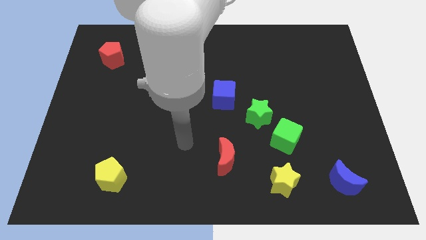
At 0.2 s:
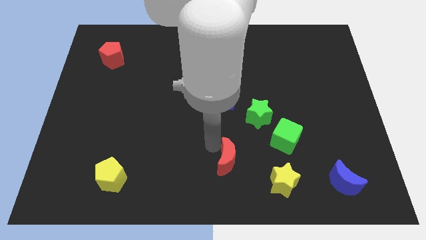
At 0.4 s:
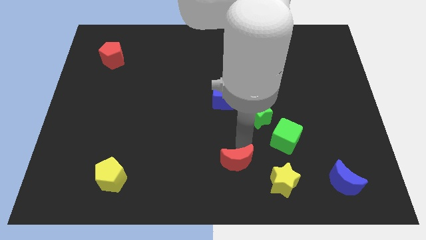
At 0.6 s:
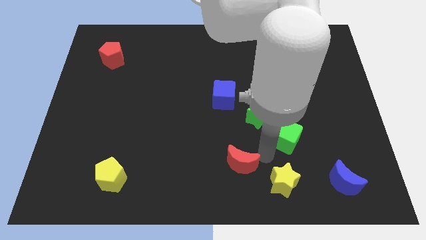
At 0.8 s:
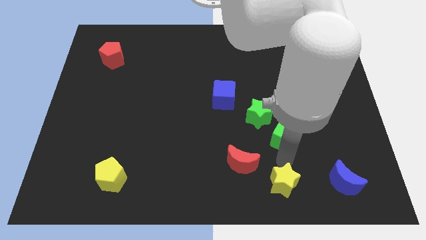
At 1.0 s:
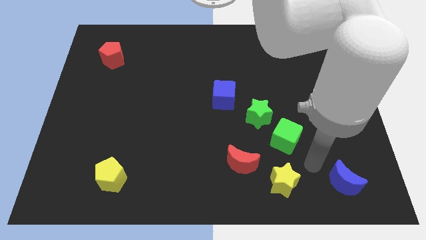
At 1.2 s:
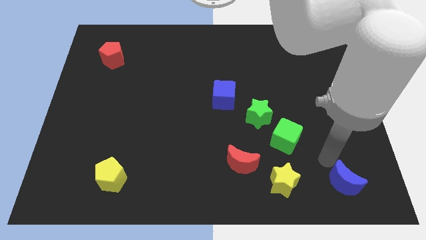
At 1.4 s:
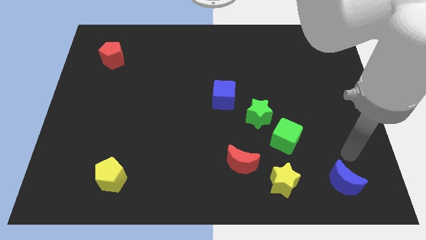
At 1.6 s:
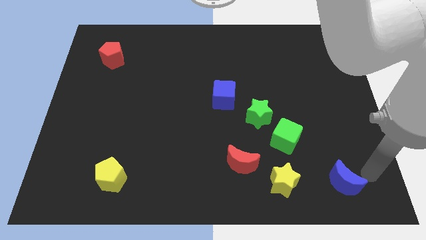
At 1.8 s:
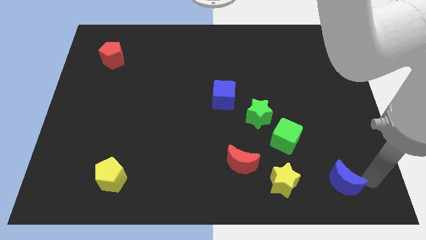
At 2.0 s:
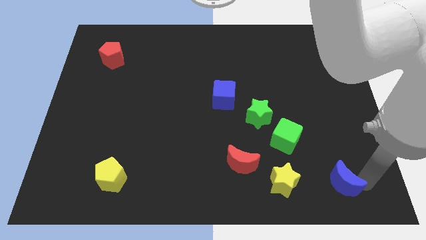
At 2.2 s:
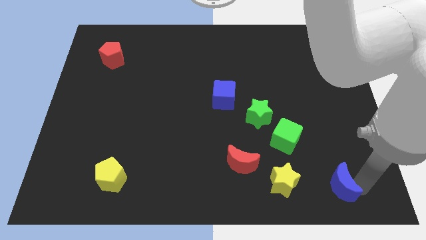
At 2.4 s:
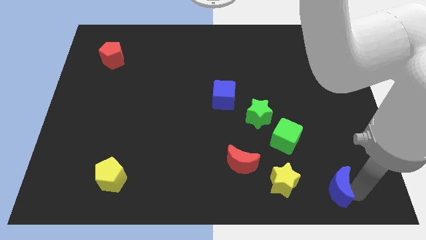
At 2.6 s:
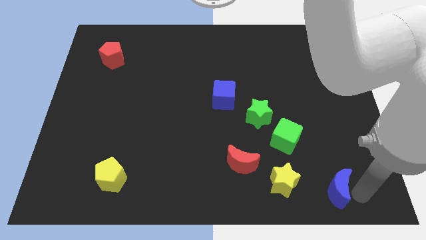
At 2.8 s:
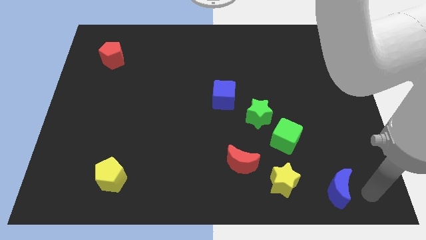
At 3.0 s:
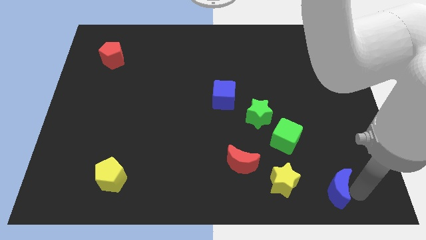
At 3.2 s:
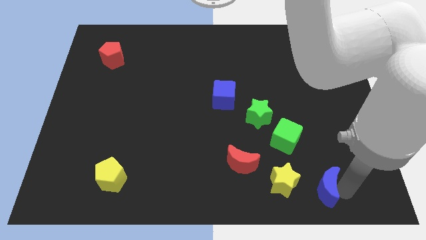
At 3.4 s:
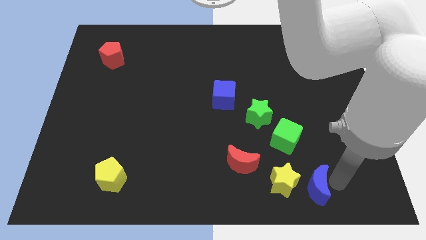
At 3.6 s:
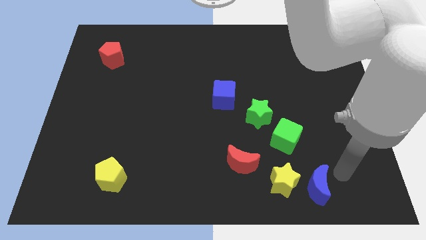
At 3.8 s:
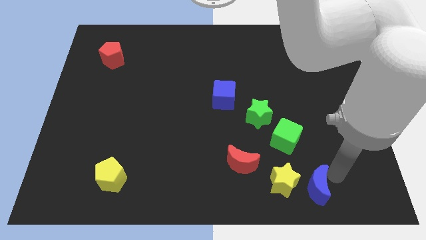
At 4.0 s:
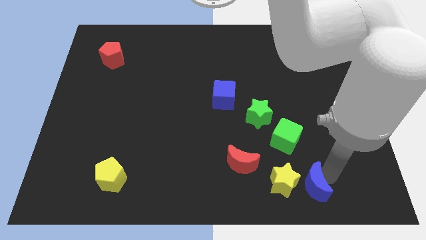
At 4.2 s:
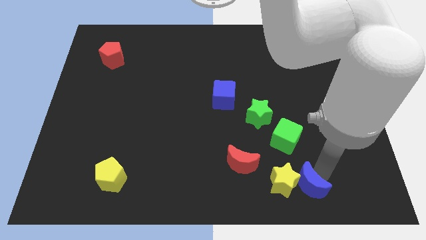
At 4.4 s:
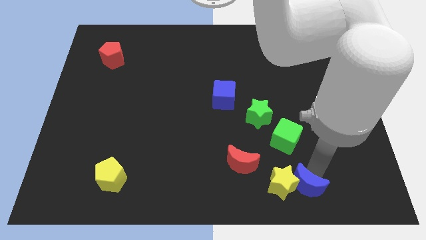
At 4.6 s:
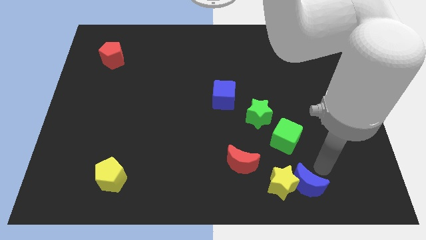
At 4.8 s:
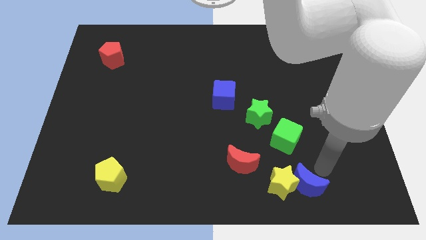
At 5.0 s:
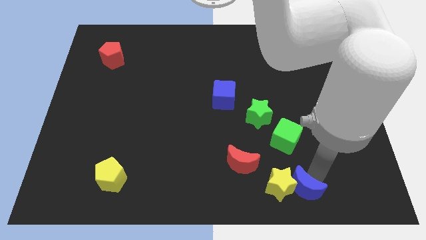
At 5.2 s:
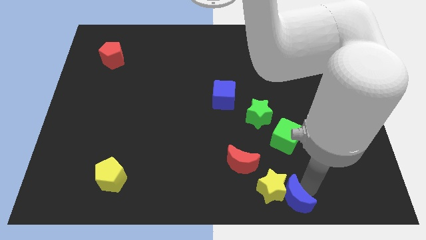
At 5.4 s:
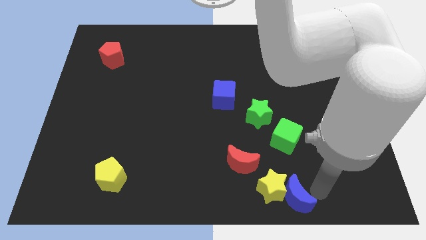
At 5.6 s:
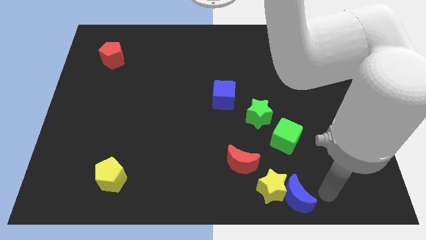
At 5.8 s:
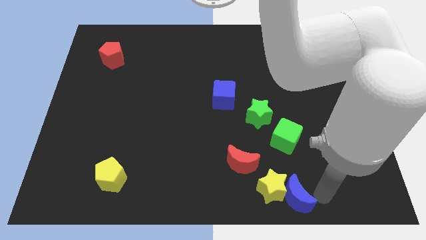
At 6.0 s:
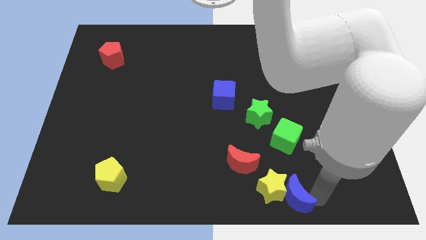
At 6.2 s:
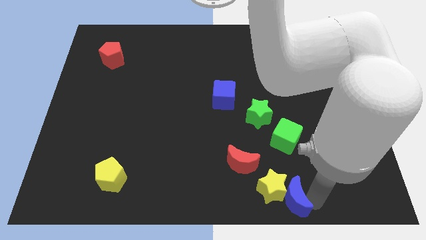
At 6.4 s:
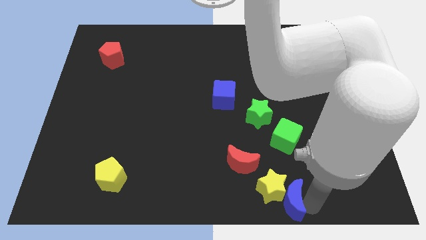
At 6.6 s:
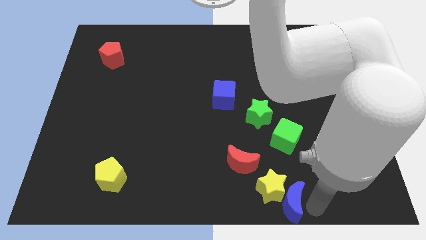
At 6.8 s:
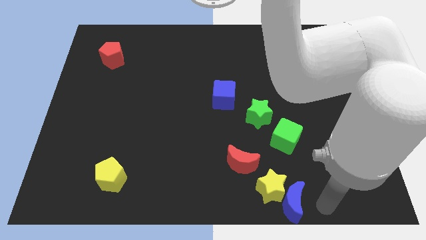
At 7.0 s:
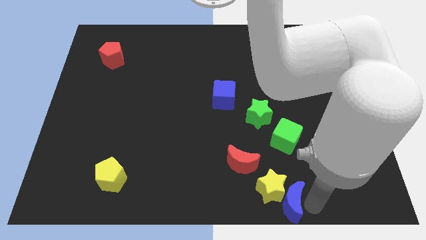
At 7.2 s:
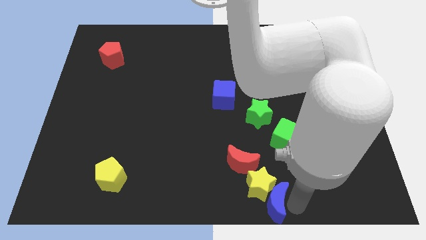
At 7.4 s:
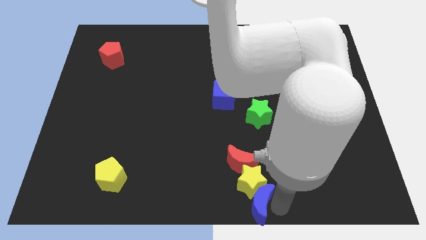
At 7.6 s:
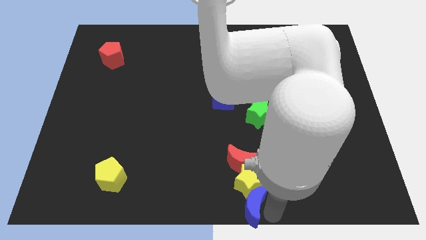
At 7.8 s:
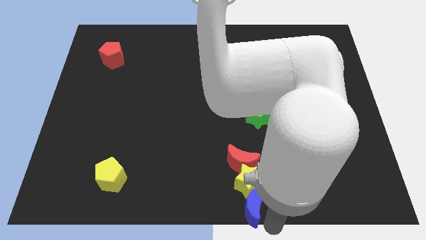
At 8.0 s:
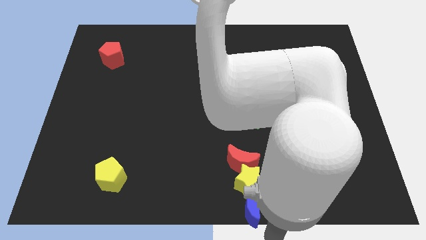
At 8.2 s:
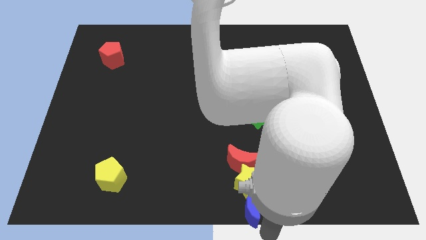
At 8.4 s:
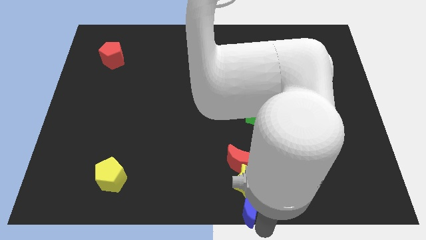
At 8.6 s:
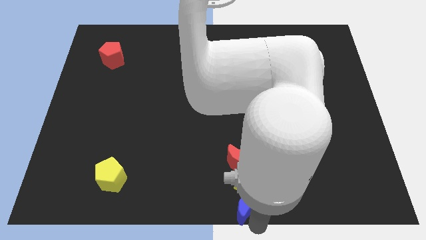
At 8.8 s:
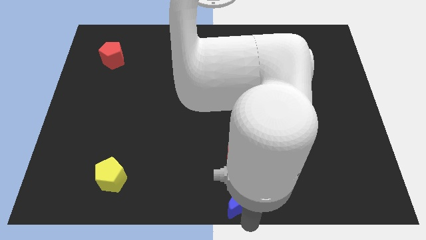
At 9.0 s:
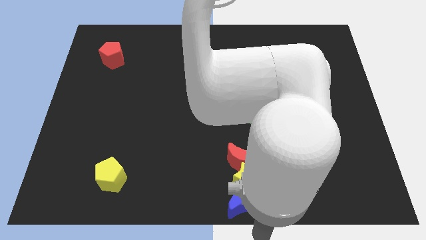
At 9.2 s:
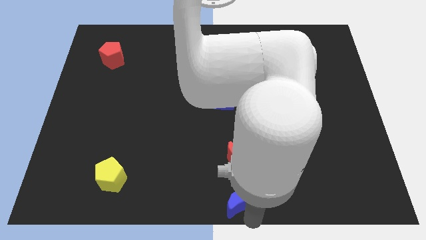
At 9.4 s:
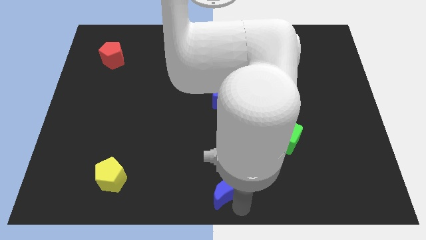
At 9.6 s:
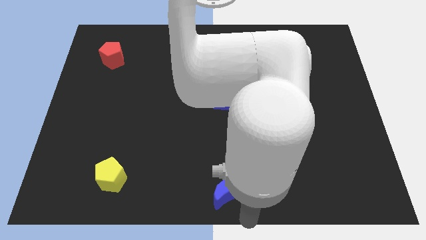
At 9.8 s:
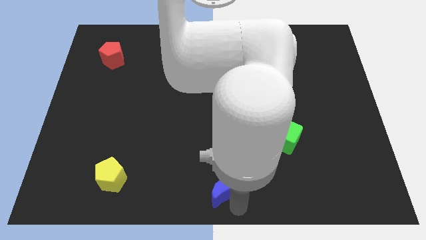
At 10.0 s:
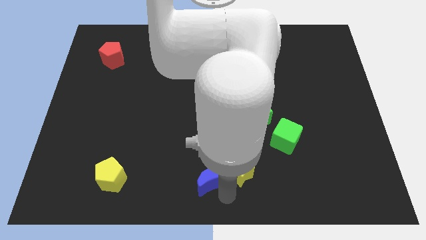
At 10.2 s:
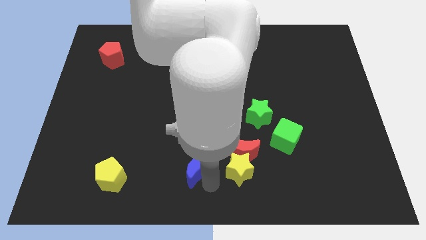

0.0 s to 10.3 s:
push the blue moon left of the red moon

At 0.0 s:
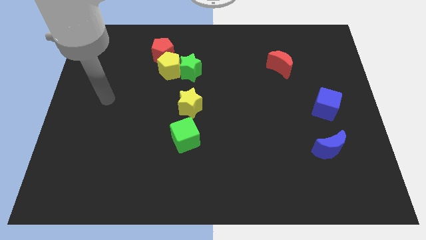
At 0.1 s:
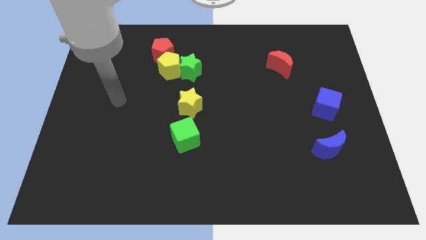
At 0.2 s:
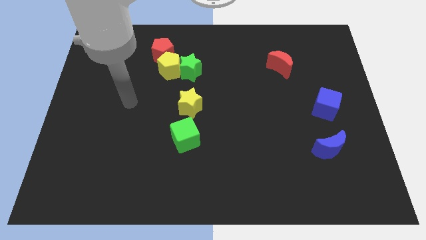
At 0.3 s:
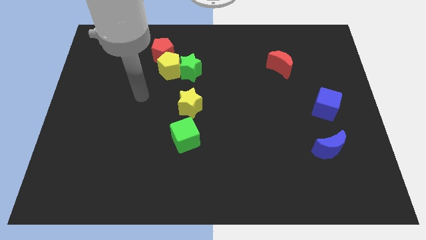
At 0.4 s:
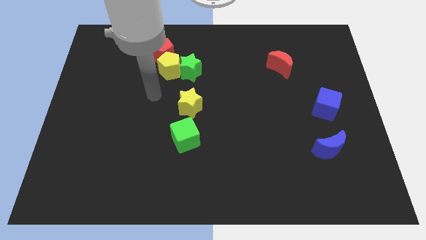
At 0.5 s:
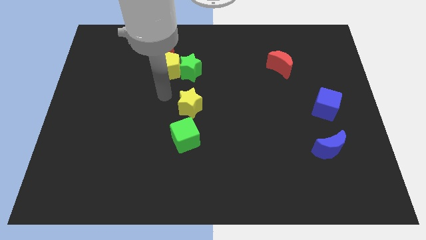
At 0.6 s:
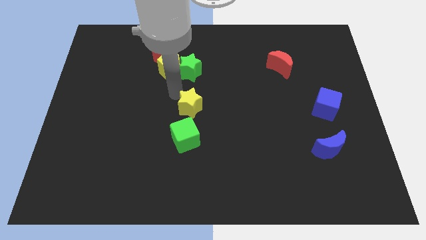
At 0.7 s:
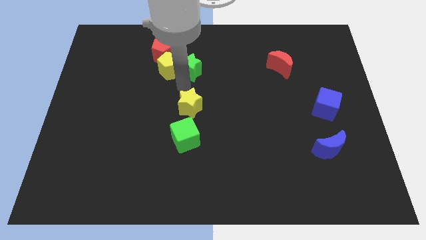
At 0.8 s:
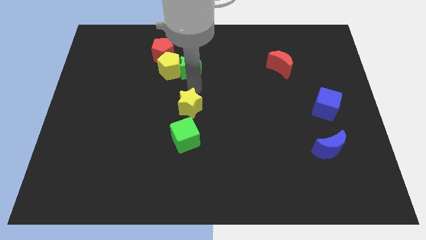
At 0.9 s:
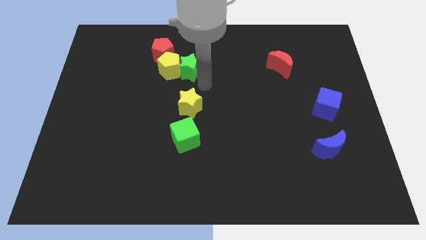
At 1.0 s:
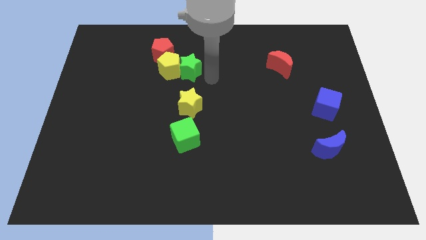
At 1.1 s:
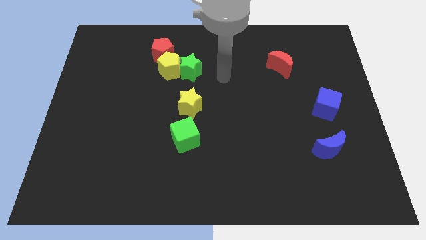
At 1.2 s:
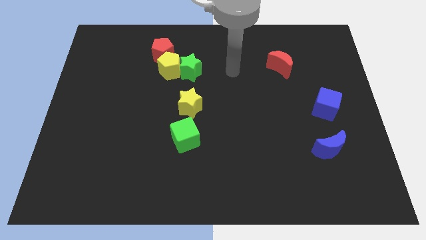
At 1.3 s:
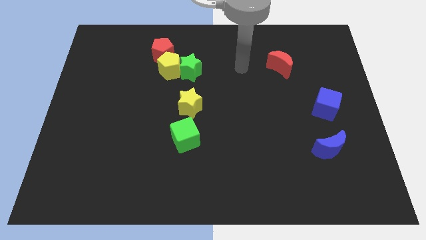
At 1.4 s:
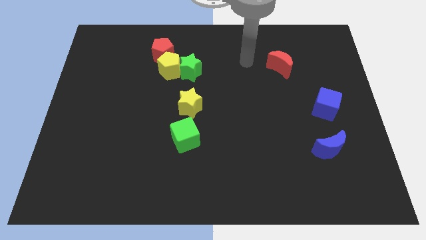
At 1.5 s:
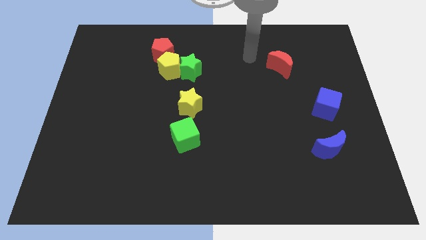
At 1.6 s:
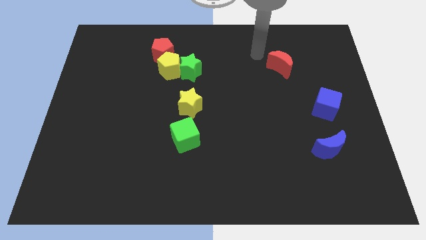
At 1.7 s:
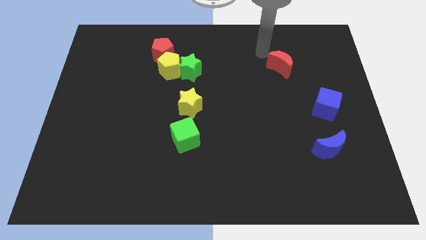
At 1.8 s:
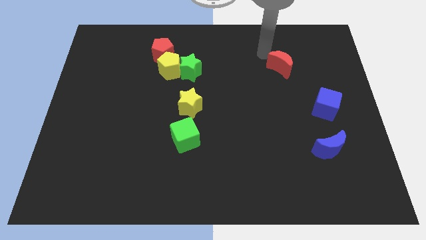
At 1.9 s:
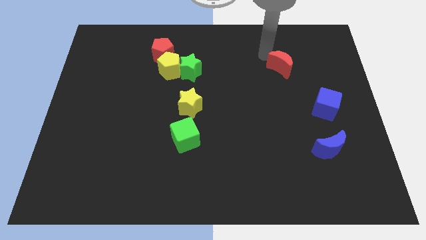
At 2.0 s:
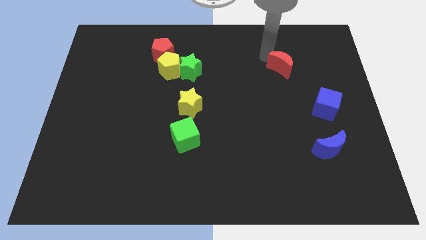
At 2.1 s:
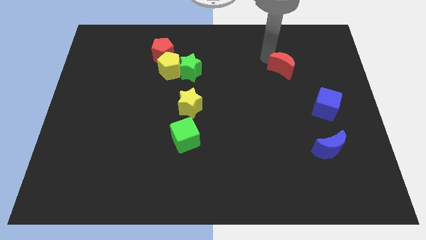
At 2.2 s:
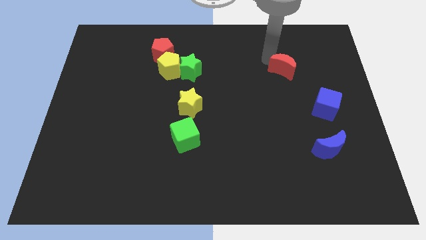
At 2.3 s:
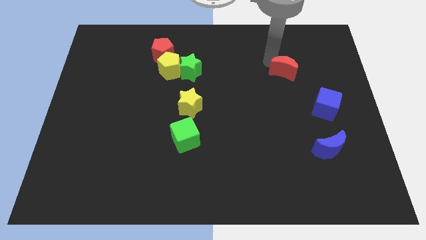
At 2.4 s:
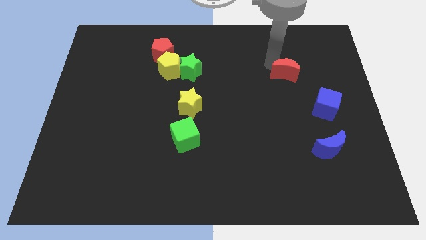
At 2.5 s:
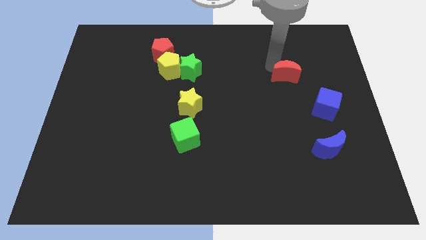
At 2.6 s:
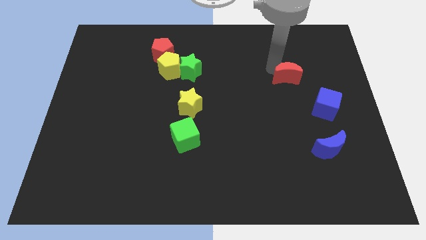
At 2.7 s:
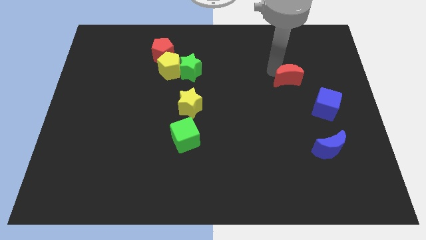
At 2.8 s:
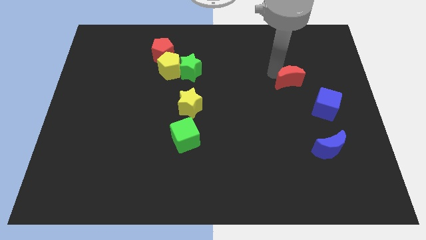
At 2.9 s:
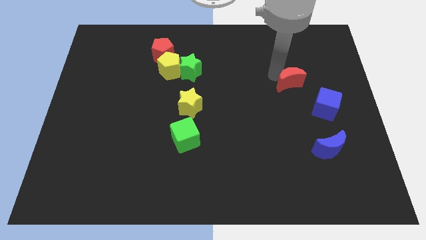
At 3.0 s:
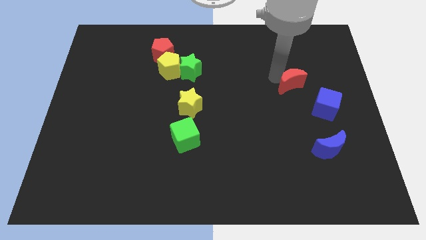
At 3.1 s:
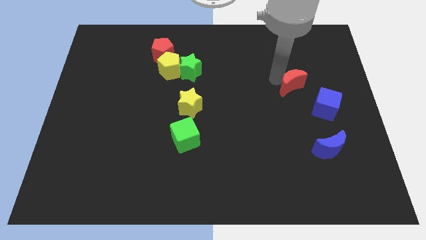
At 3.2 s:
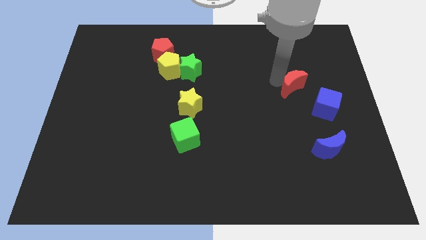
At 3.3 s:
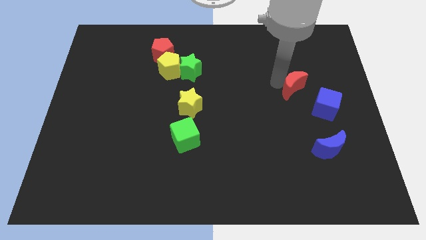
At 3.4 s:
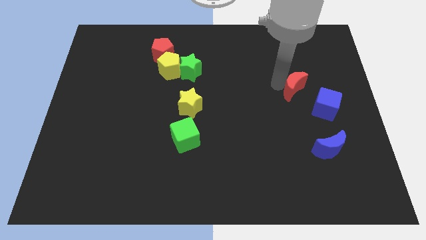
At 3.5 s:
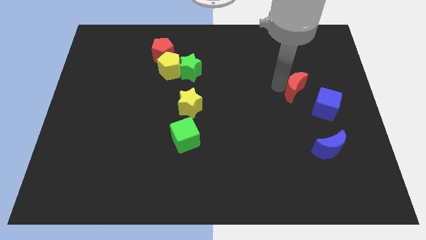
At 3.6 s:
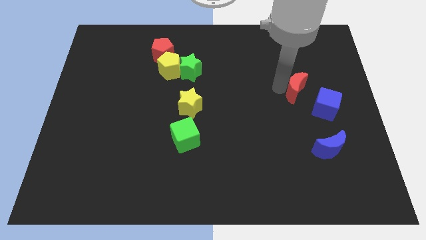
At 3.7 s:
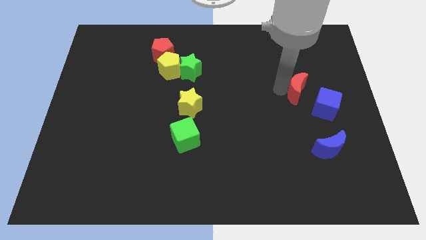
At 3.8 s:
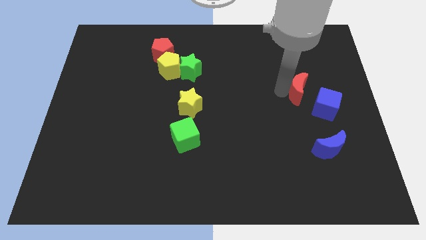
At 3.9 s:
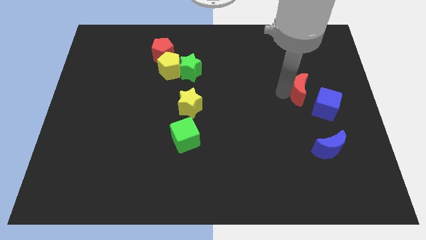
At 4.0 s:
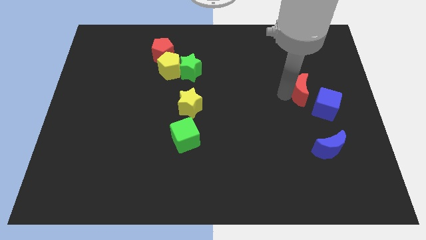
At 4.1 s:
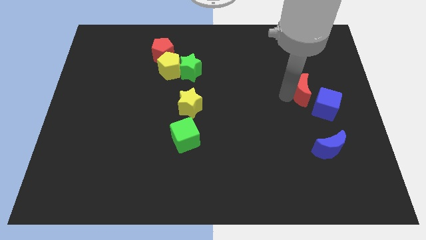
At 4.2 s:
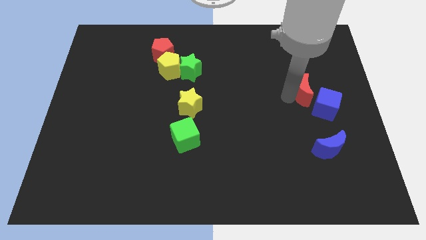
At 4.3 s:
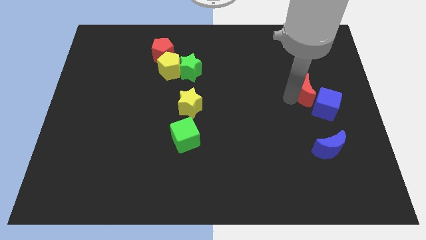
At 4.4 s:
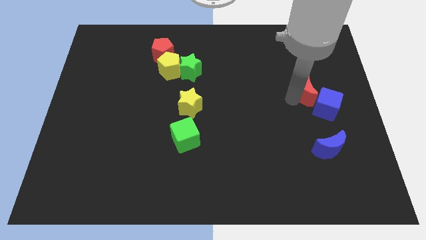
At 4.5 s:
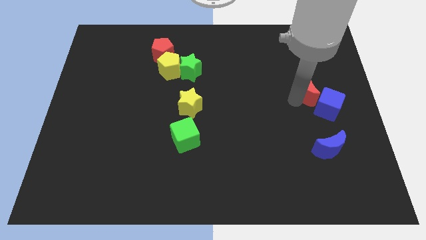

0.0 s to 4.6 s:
put the red moon to the top of the blue moon
